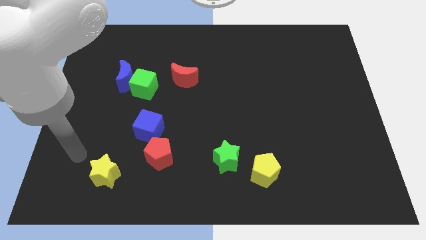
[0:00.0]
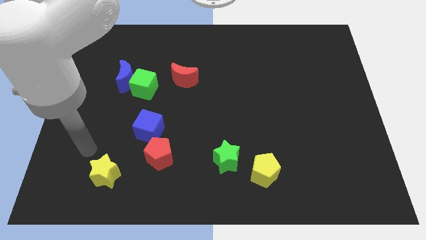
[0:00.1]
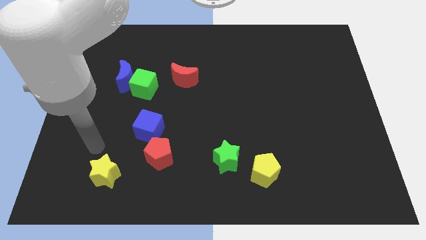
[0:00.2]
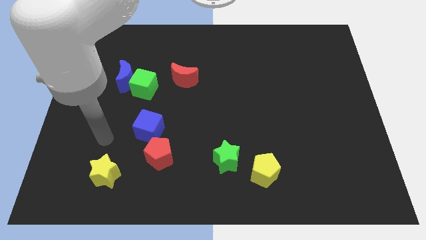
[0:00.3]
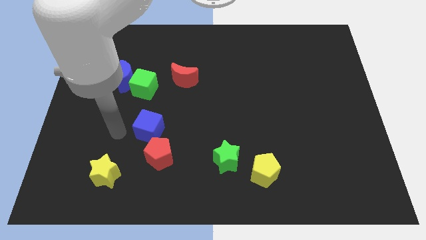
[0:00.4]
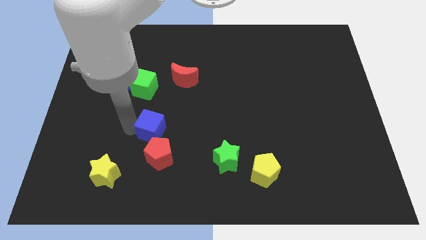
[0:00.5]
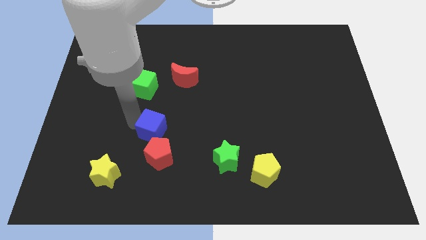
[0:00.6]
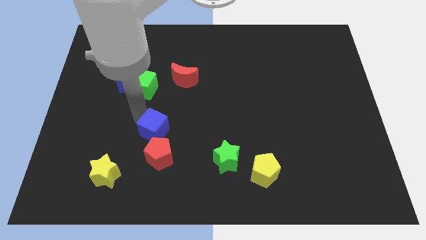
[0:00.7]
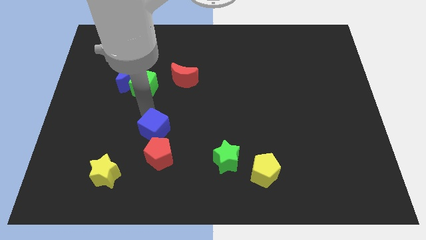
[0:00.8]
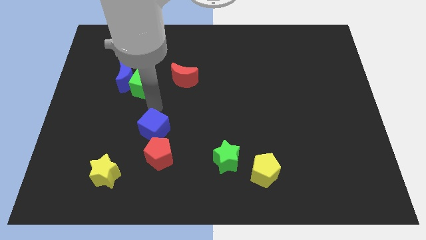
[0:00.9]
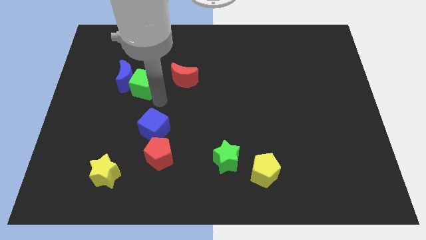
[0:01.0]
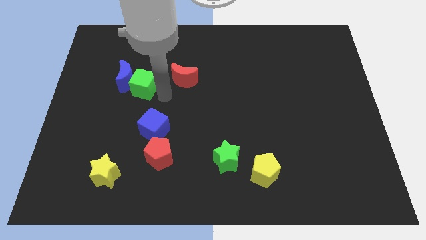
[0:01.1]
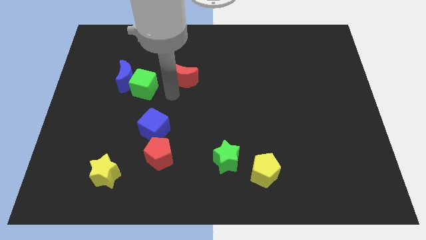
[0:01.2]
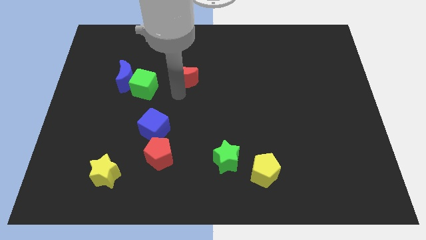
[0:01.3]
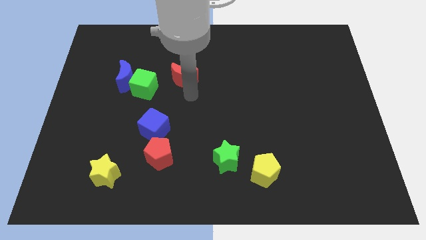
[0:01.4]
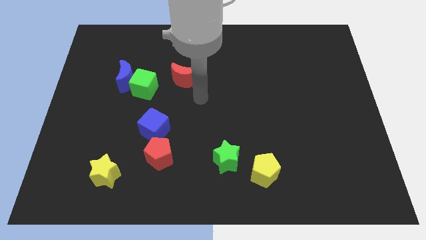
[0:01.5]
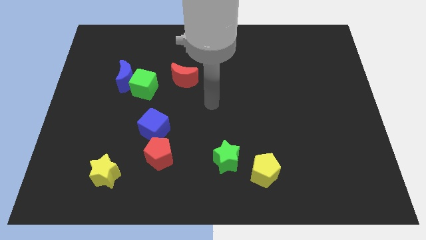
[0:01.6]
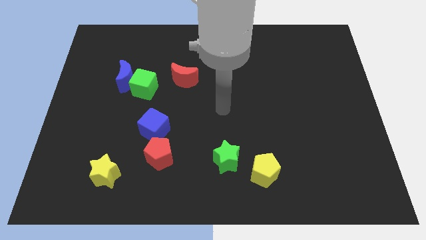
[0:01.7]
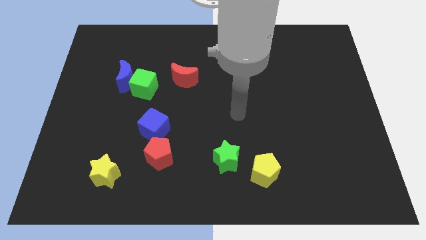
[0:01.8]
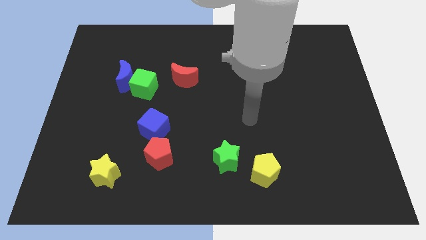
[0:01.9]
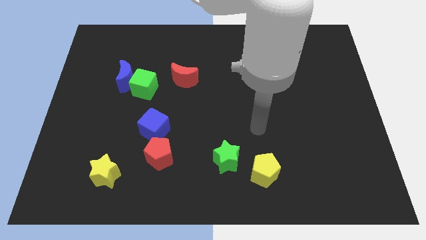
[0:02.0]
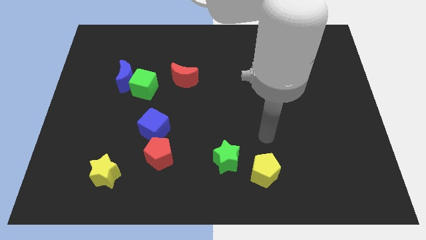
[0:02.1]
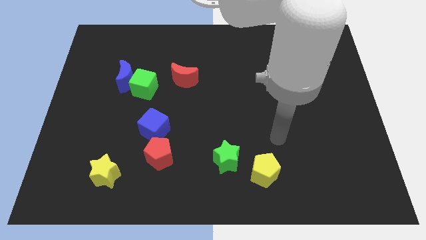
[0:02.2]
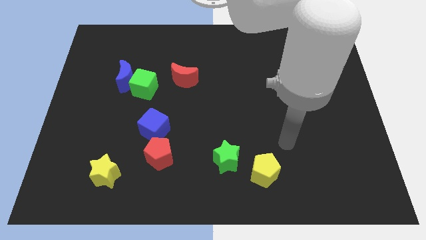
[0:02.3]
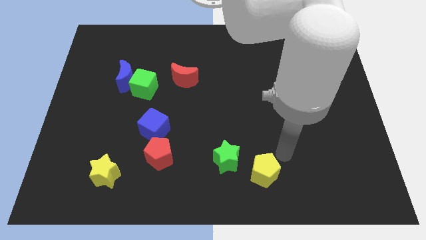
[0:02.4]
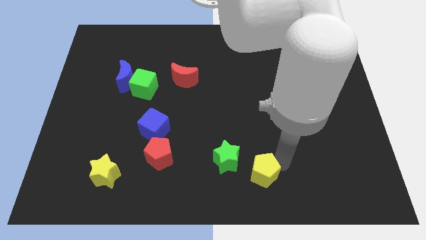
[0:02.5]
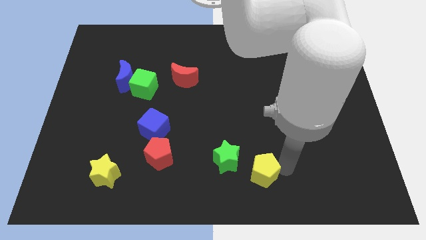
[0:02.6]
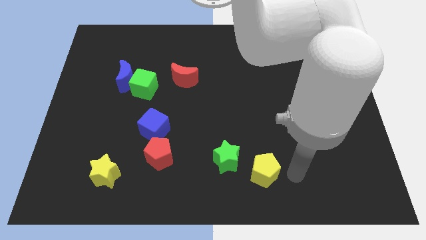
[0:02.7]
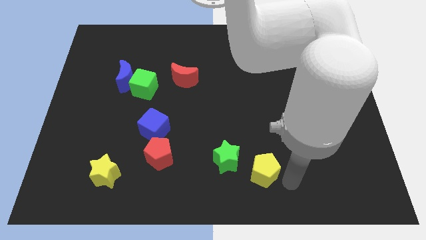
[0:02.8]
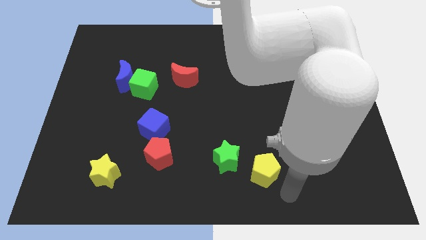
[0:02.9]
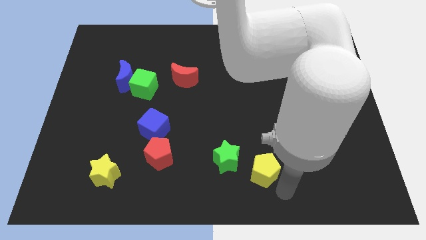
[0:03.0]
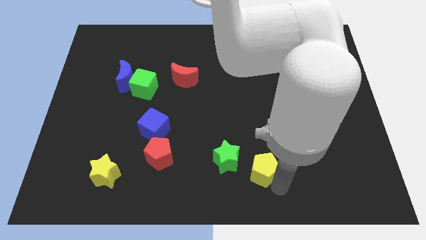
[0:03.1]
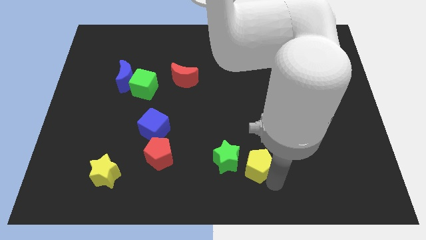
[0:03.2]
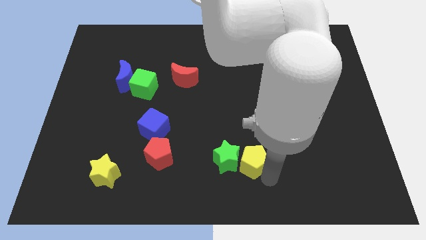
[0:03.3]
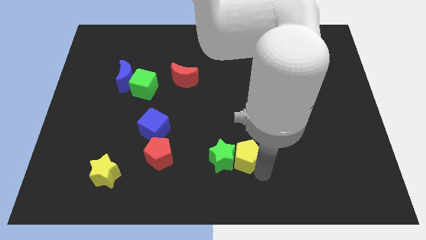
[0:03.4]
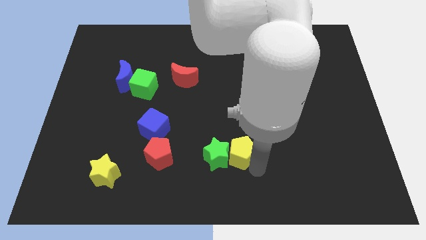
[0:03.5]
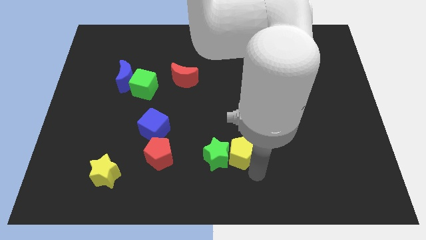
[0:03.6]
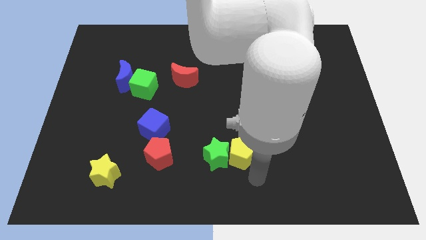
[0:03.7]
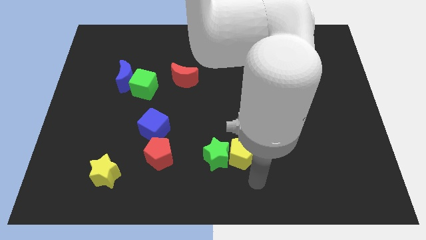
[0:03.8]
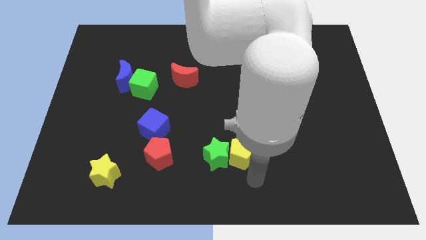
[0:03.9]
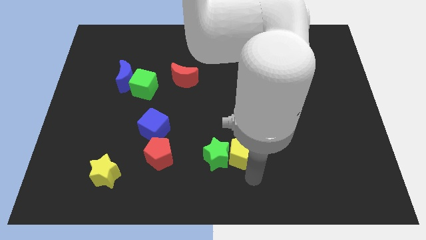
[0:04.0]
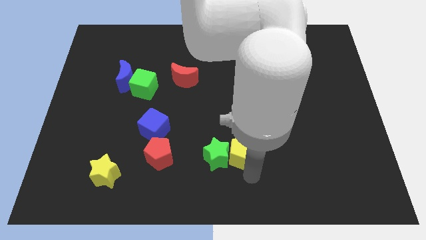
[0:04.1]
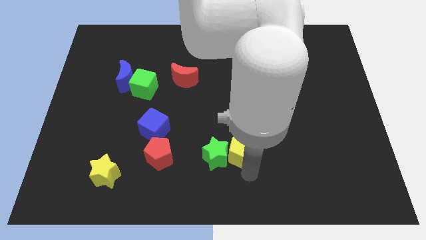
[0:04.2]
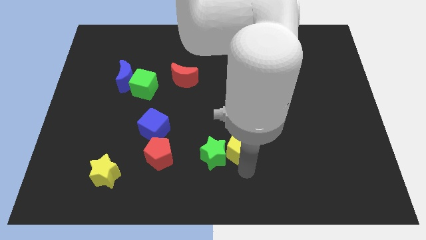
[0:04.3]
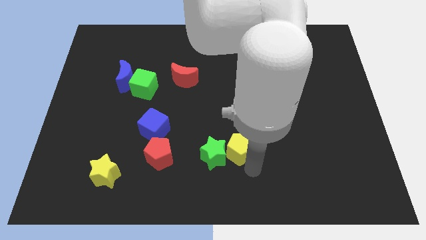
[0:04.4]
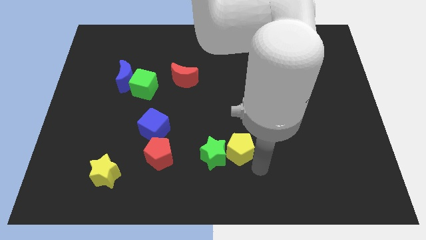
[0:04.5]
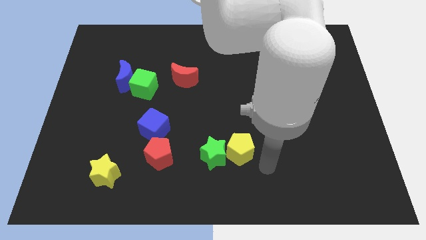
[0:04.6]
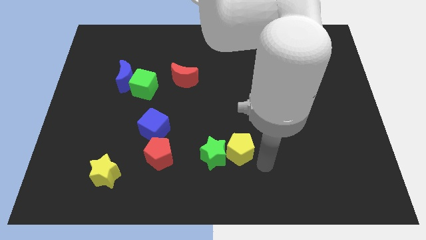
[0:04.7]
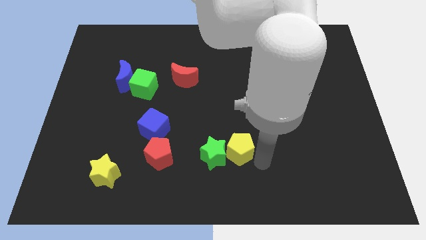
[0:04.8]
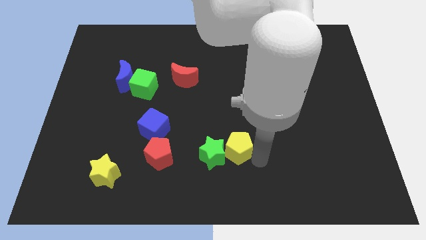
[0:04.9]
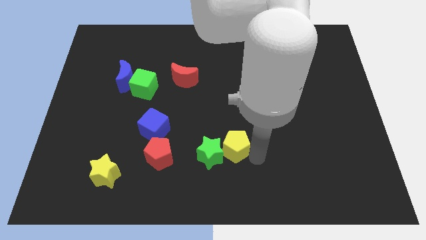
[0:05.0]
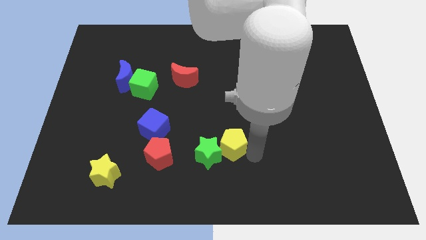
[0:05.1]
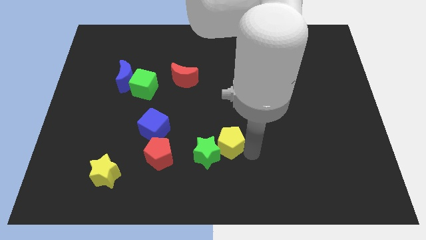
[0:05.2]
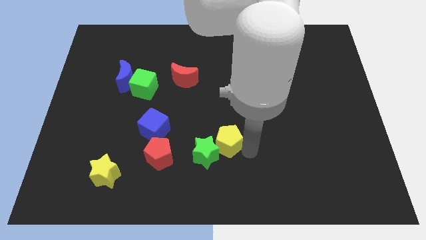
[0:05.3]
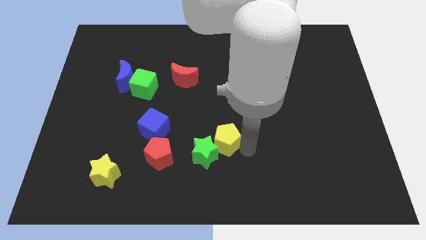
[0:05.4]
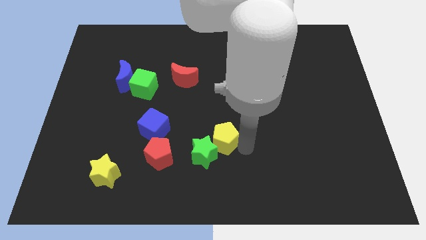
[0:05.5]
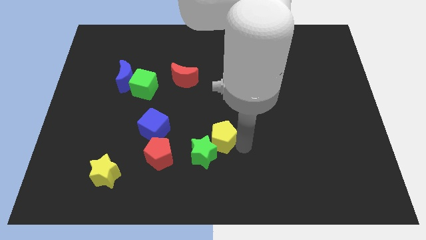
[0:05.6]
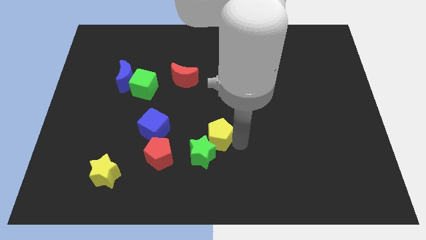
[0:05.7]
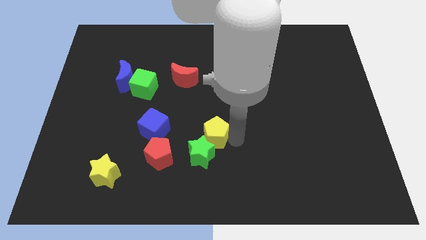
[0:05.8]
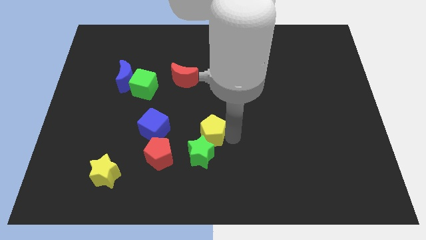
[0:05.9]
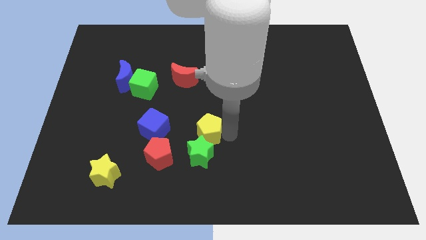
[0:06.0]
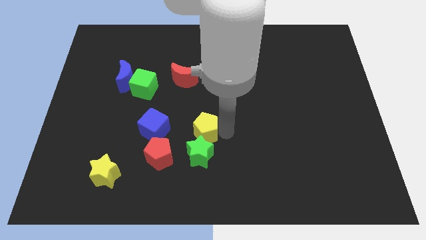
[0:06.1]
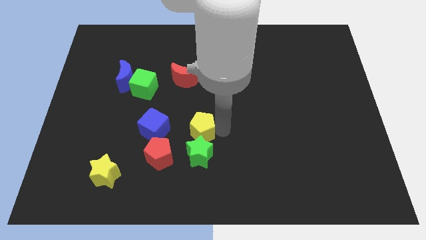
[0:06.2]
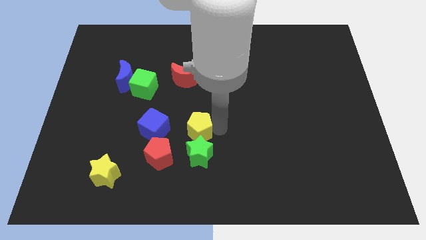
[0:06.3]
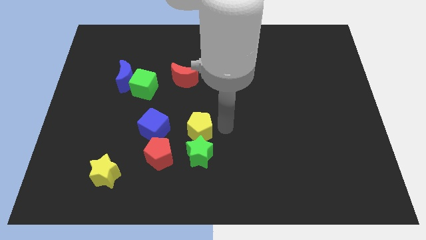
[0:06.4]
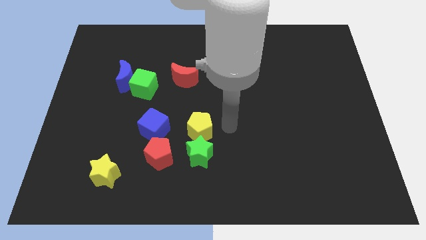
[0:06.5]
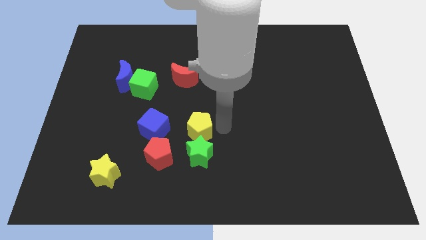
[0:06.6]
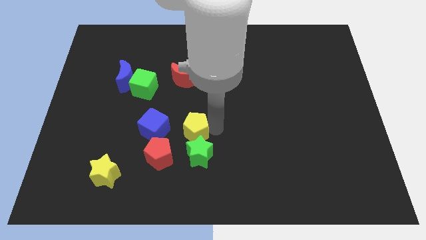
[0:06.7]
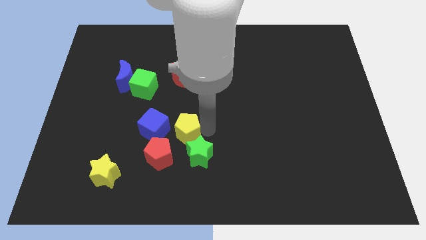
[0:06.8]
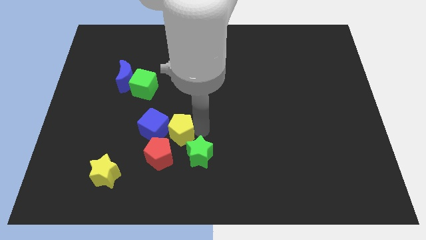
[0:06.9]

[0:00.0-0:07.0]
slide the yellow pentagon towards the blue cube
